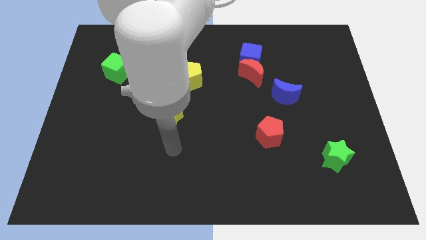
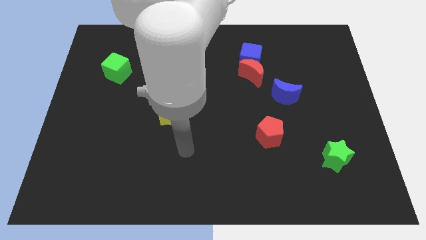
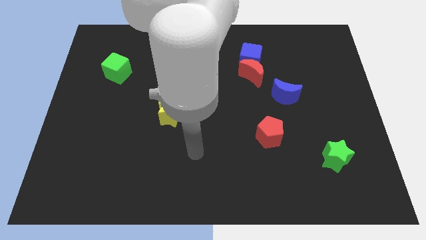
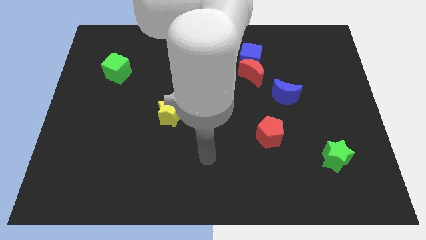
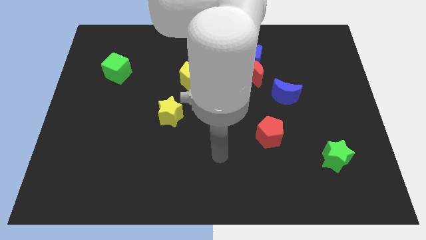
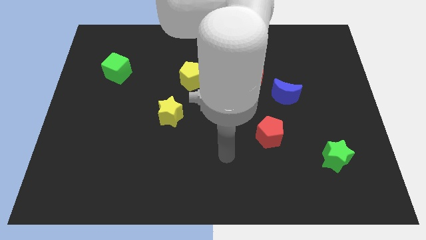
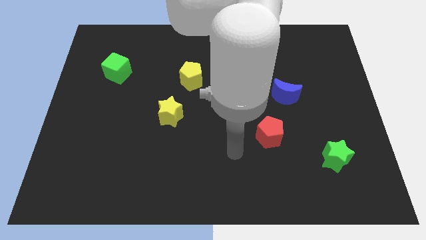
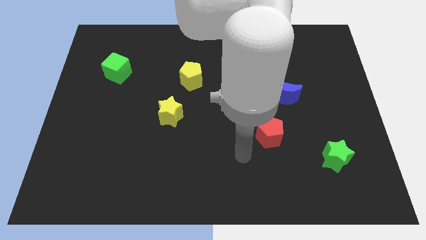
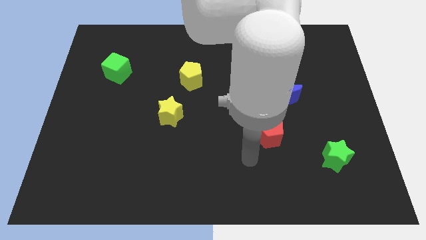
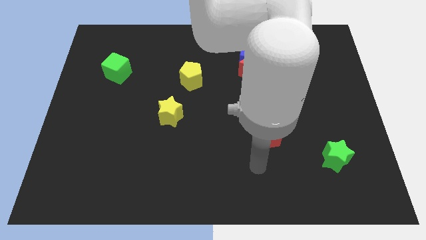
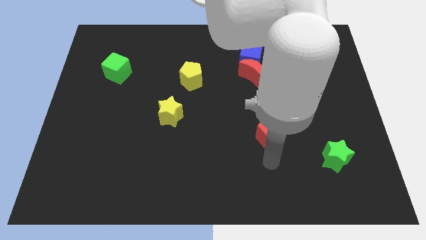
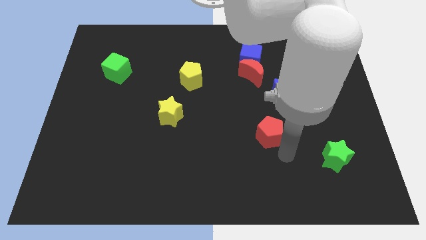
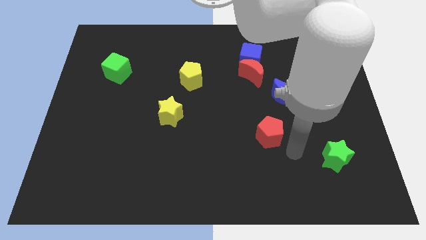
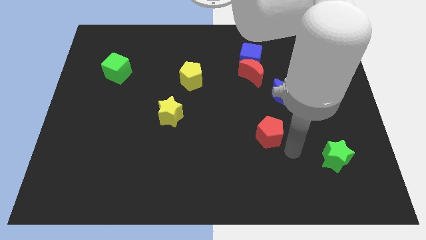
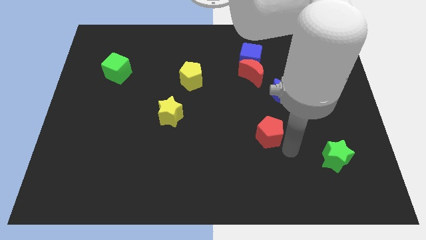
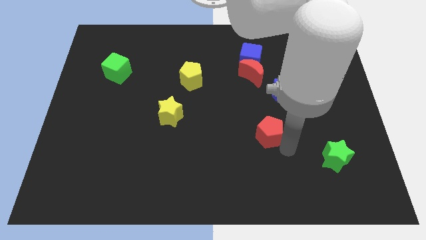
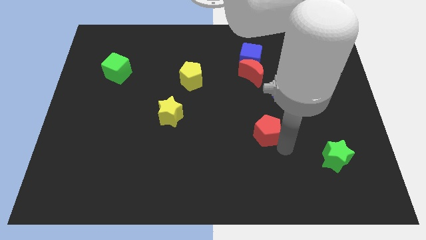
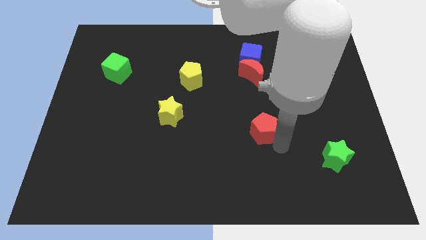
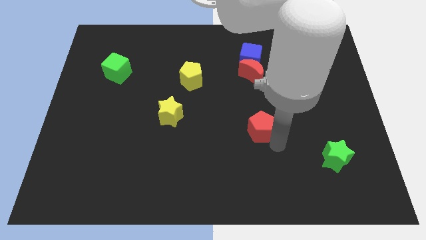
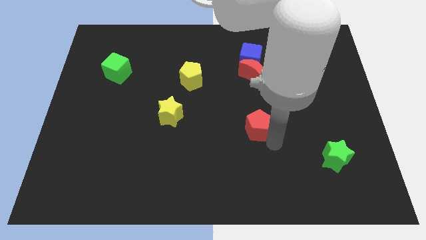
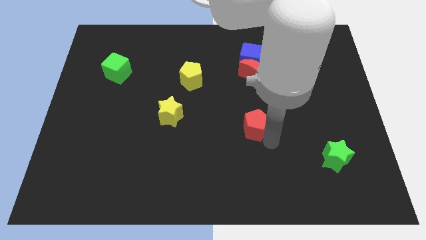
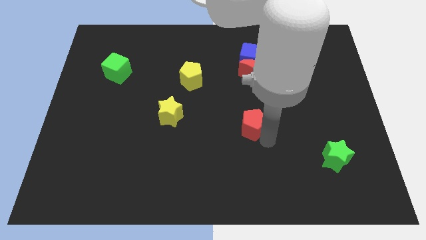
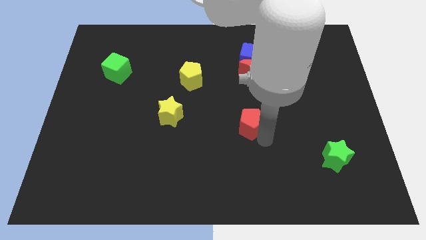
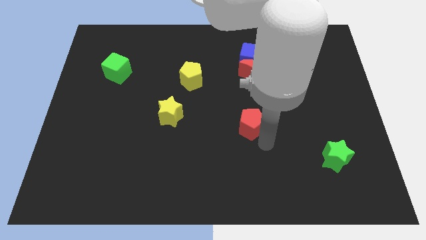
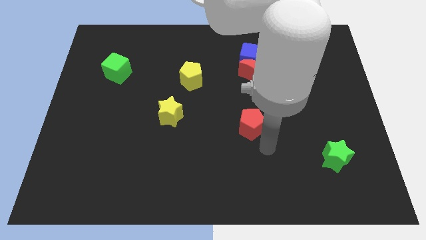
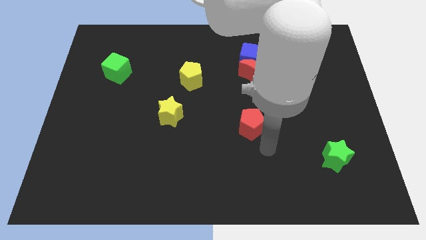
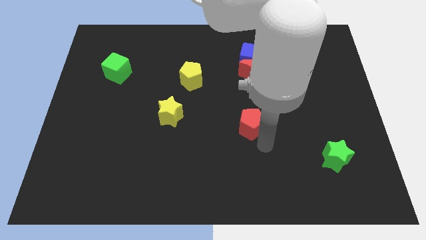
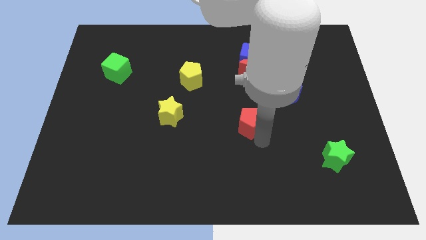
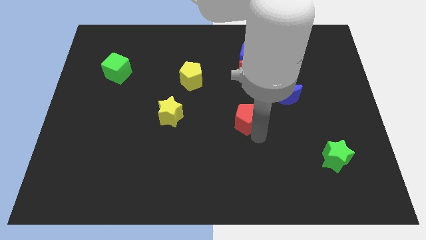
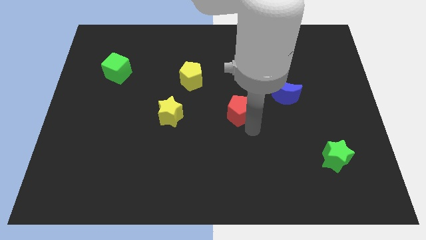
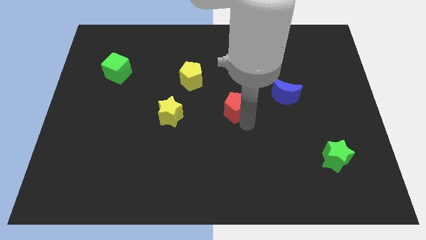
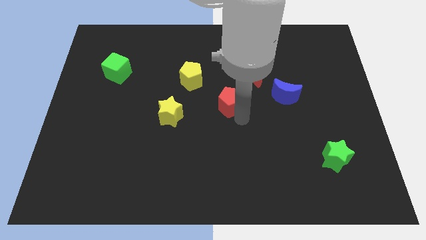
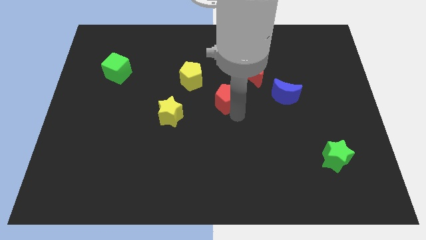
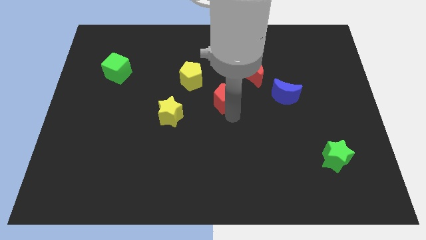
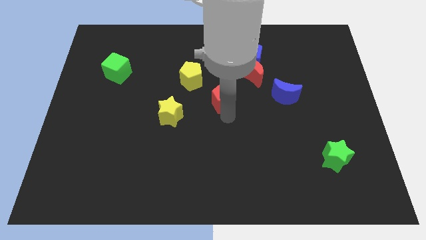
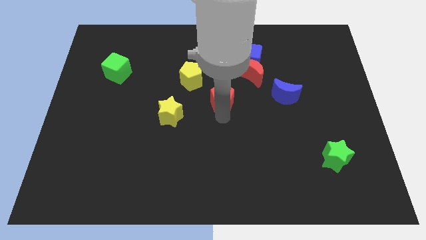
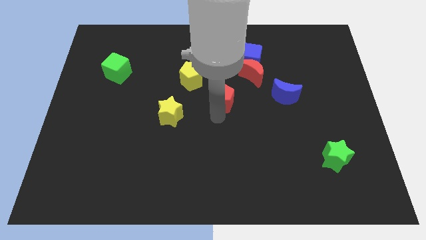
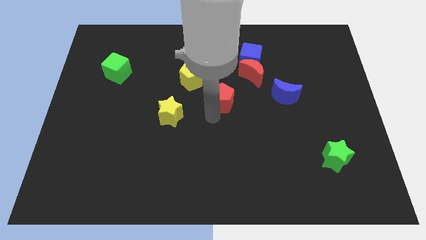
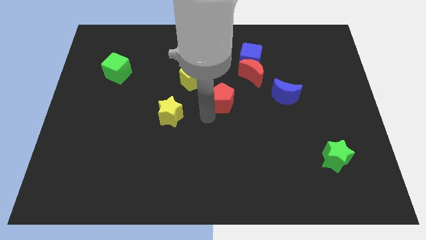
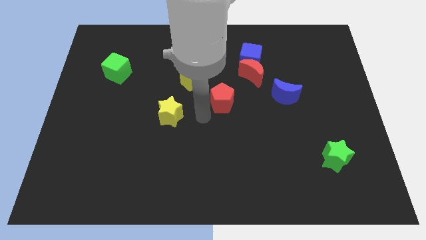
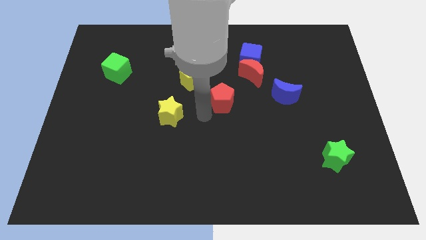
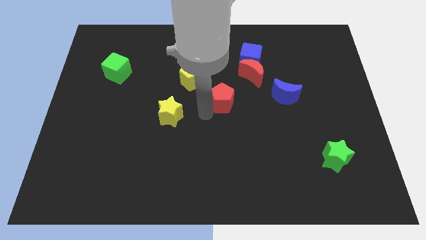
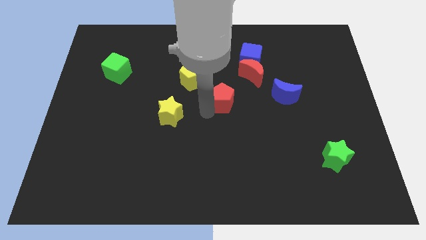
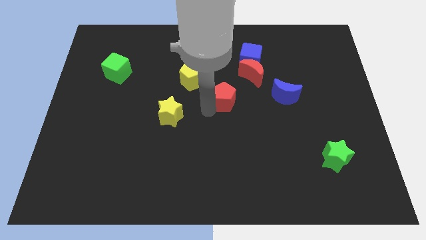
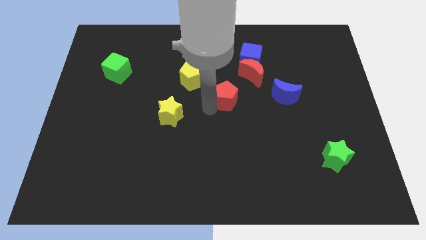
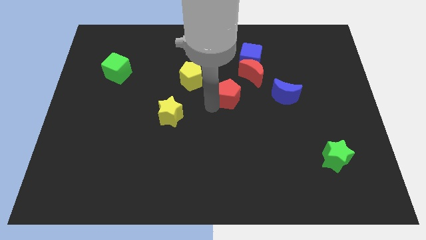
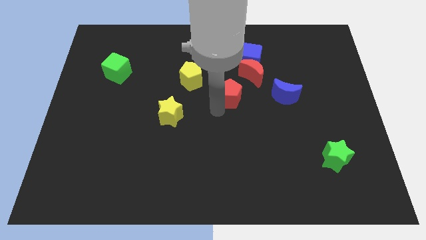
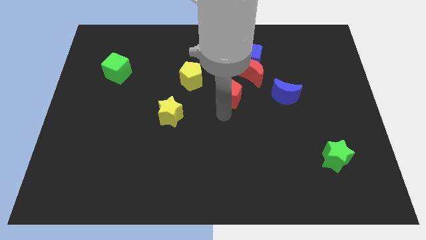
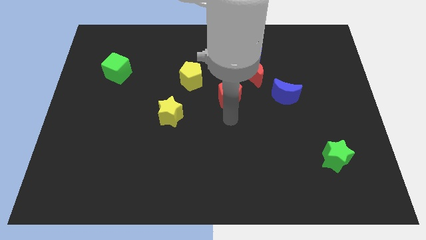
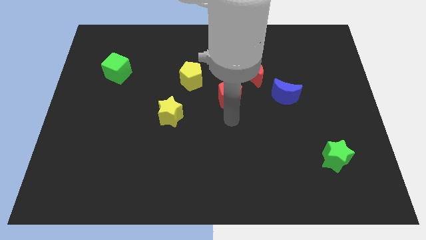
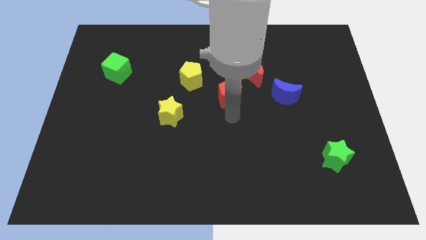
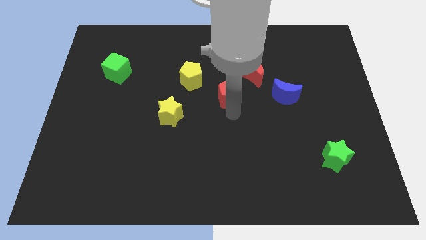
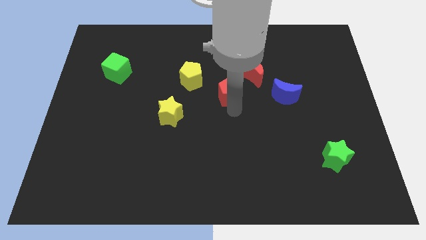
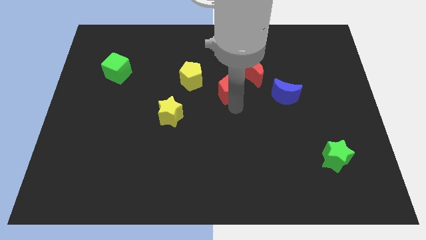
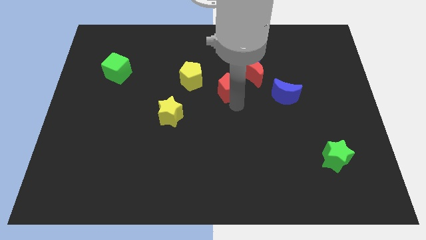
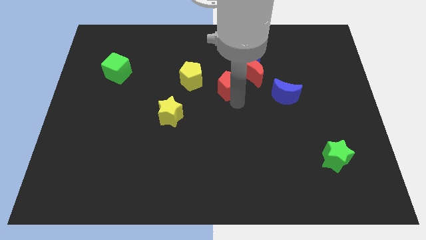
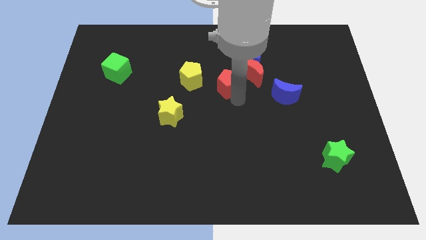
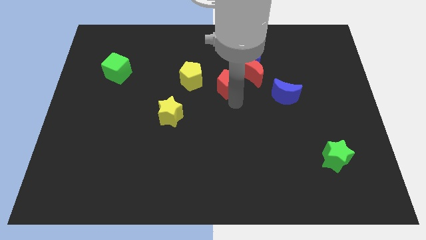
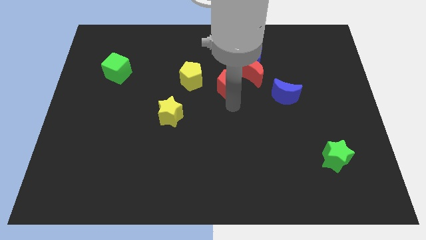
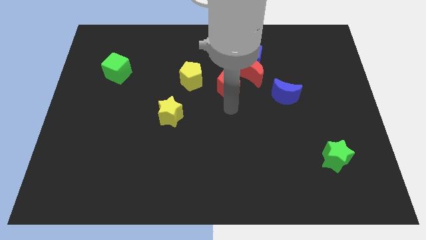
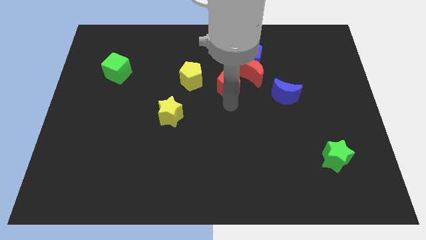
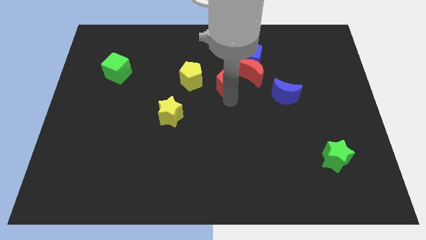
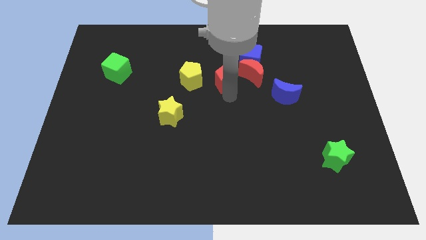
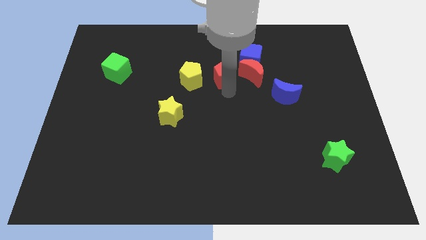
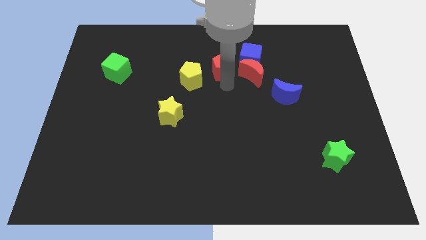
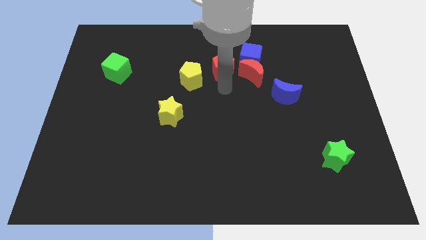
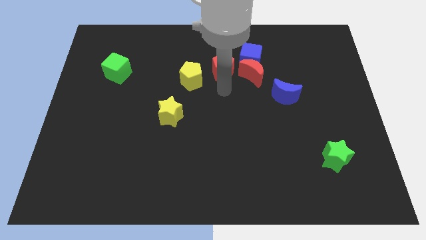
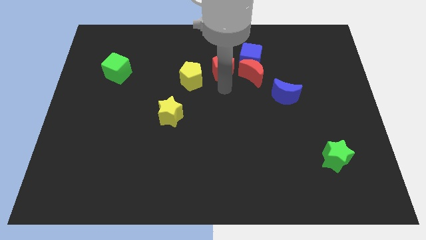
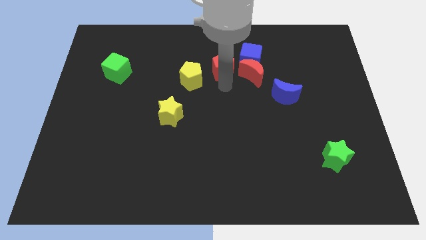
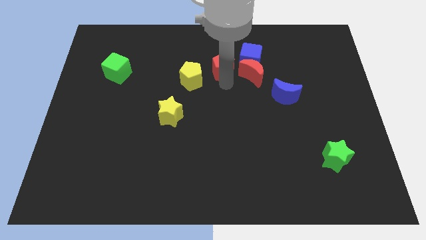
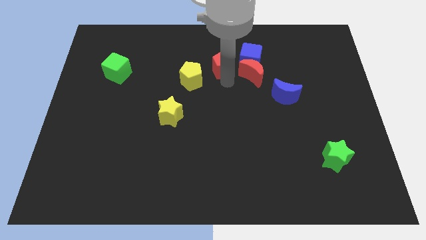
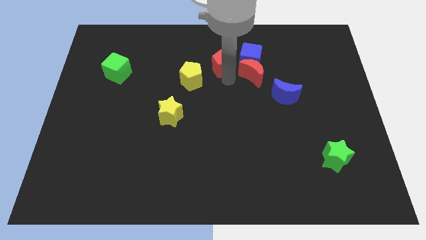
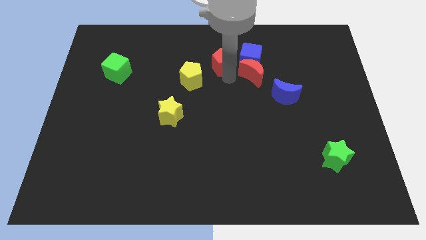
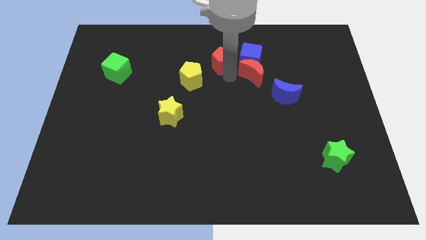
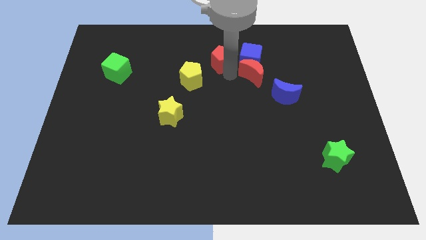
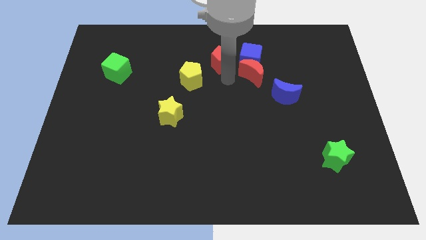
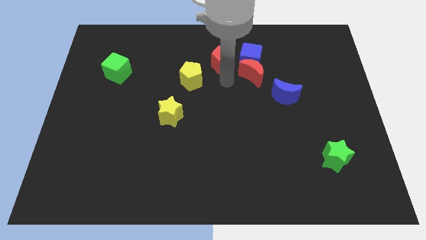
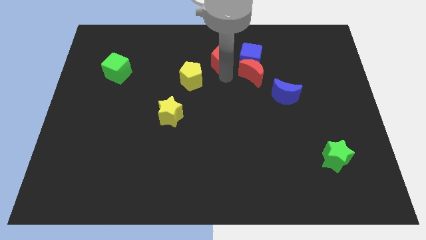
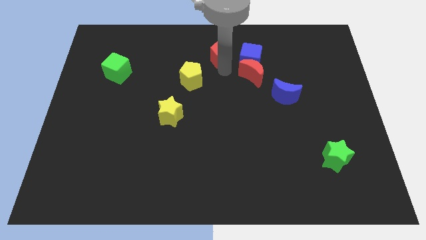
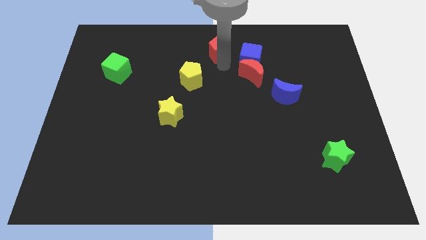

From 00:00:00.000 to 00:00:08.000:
slide the red pentagon to the top side
